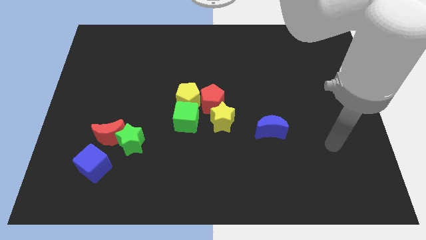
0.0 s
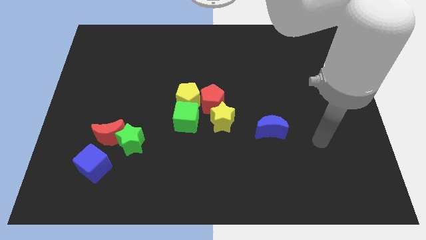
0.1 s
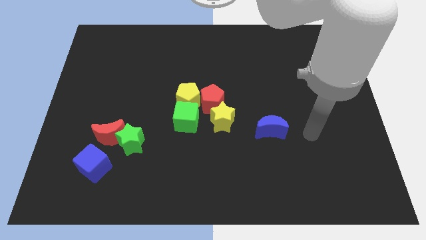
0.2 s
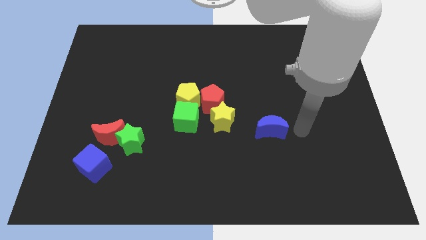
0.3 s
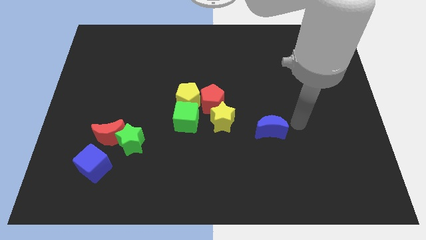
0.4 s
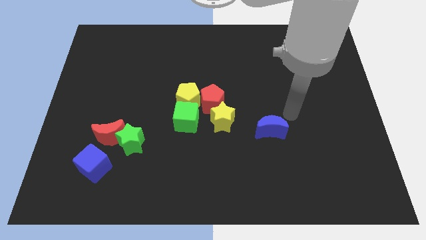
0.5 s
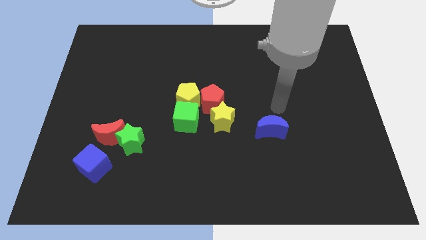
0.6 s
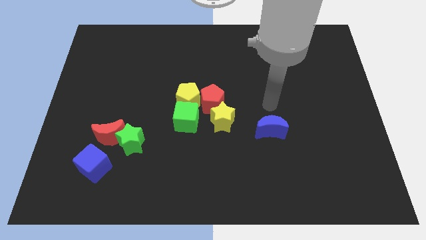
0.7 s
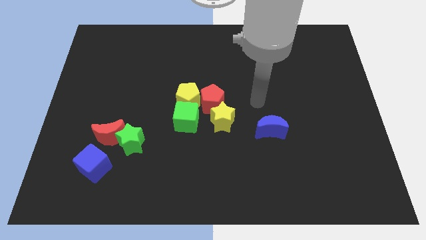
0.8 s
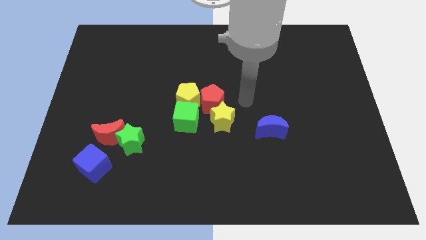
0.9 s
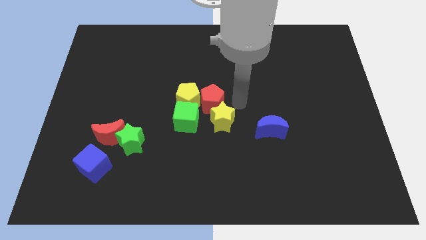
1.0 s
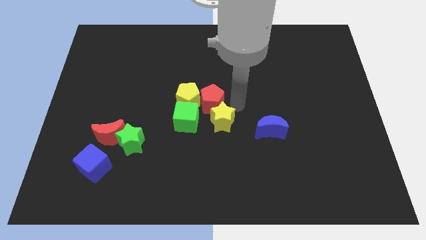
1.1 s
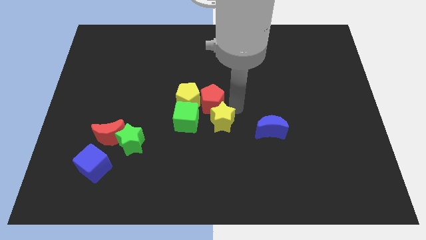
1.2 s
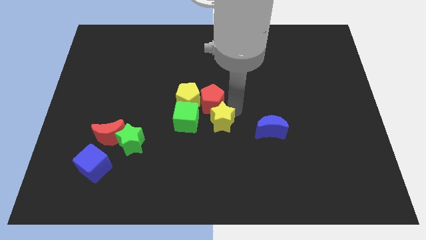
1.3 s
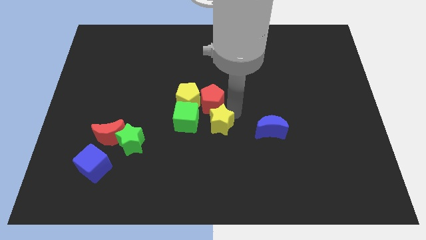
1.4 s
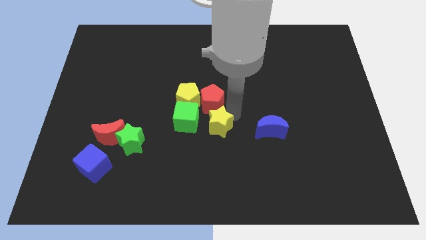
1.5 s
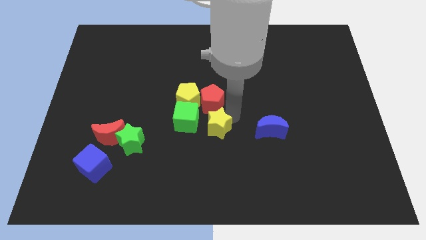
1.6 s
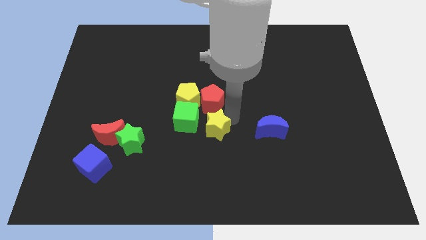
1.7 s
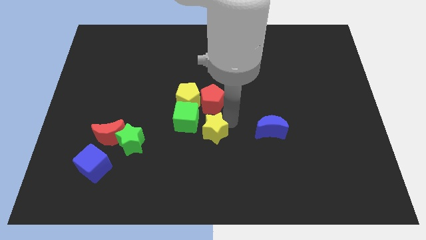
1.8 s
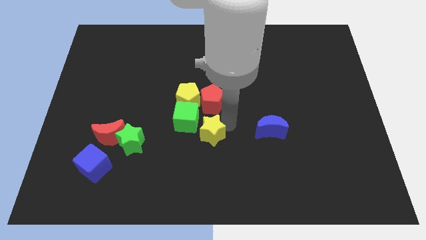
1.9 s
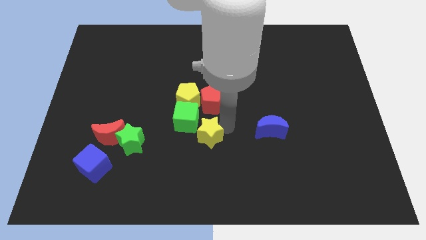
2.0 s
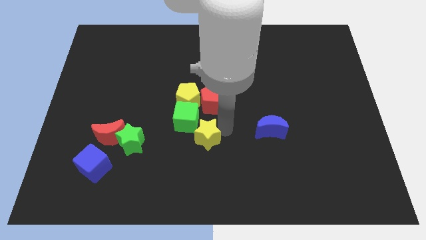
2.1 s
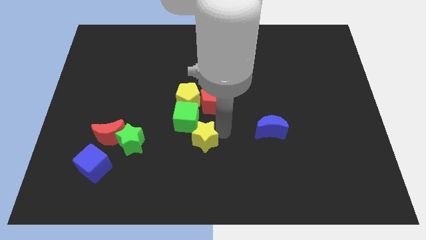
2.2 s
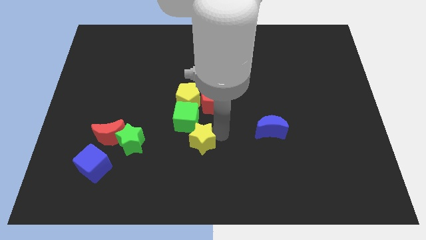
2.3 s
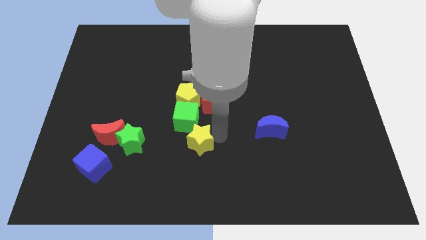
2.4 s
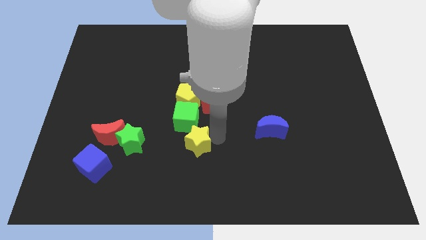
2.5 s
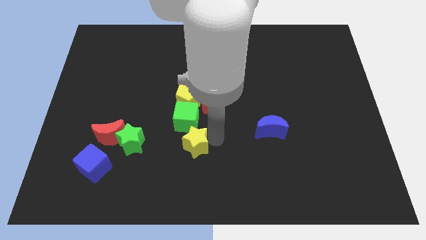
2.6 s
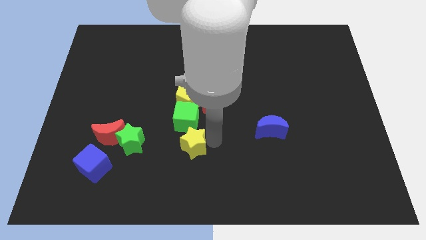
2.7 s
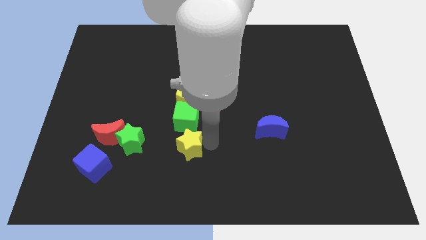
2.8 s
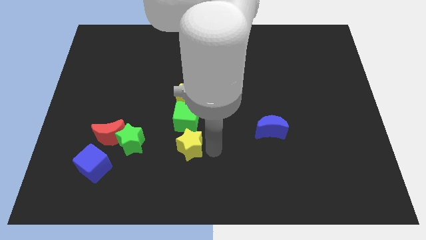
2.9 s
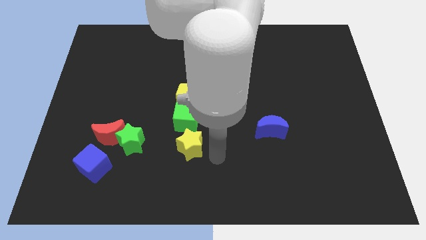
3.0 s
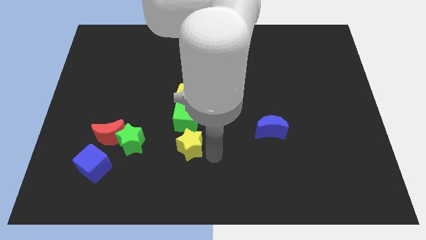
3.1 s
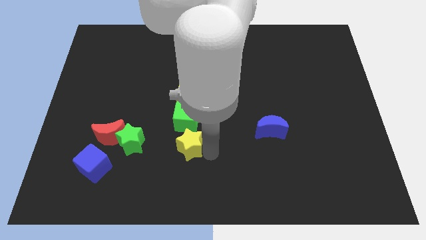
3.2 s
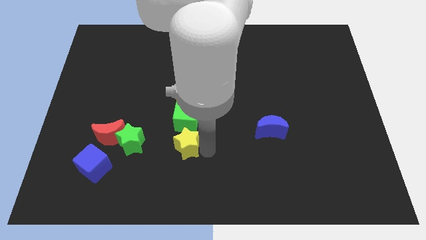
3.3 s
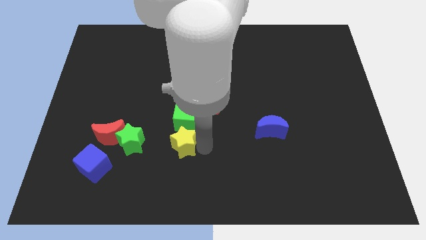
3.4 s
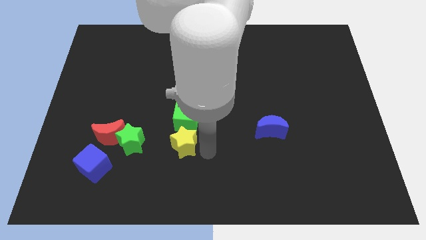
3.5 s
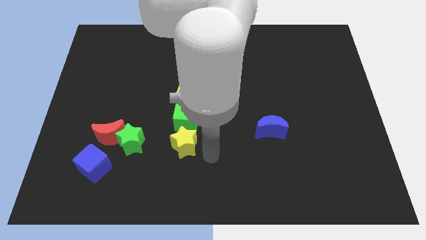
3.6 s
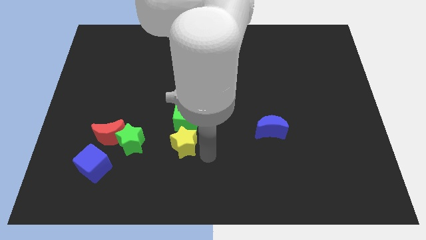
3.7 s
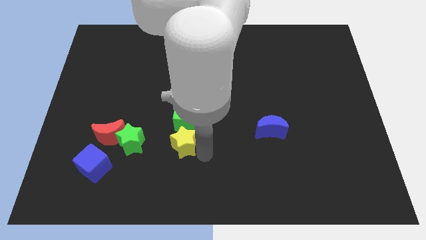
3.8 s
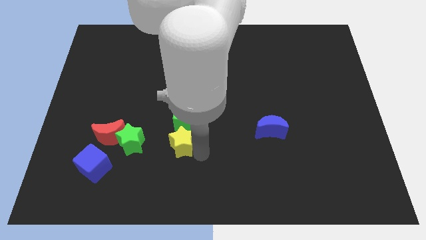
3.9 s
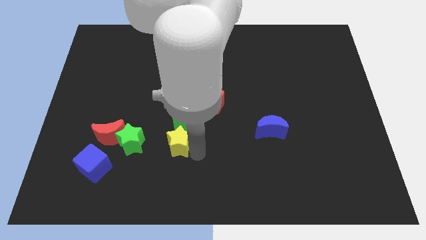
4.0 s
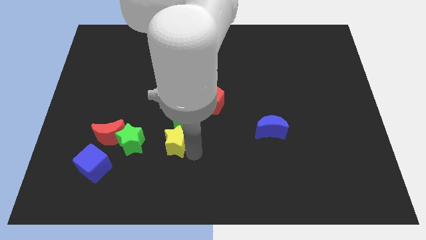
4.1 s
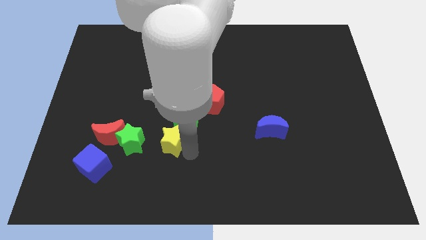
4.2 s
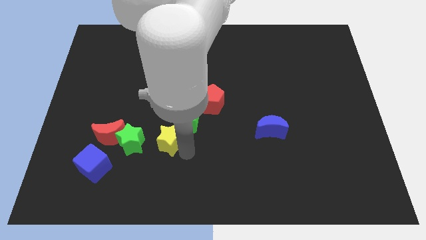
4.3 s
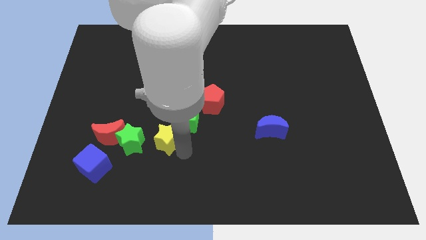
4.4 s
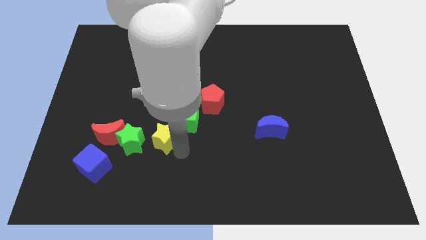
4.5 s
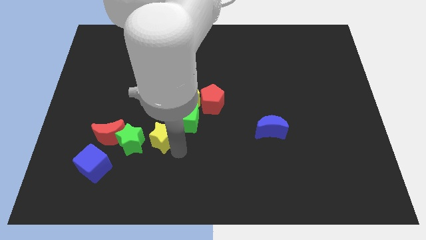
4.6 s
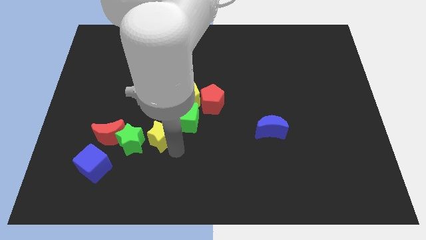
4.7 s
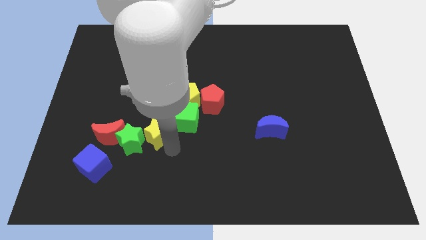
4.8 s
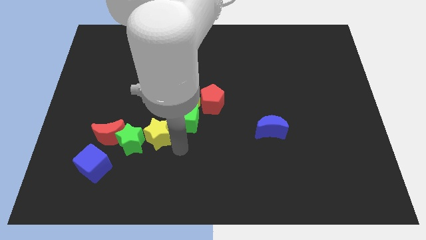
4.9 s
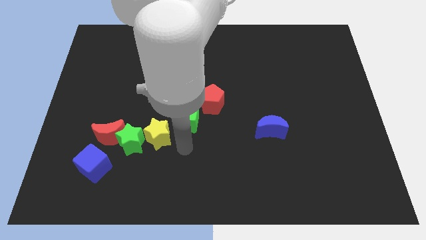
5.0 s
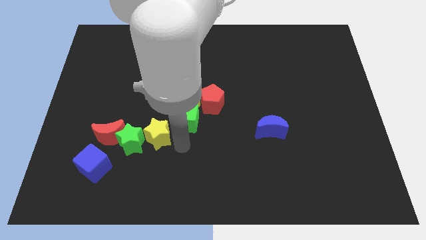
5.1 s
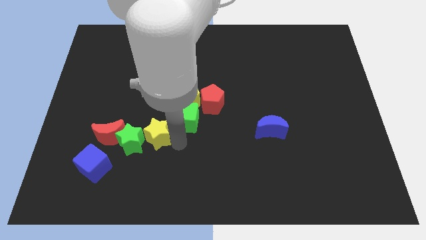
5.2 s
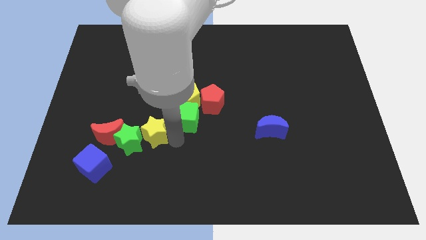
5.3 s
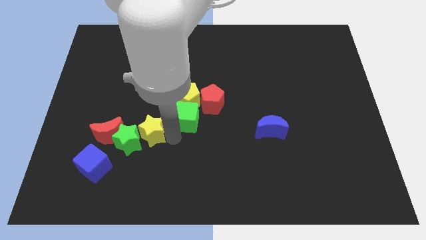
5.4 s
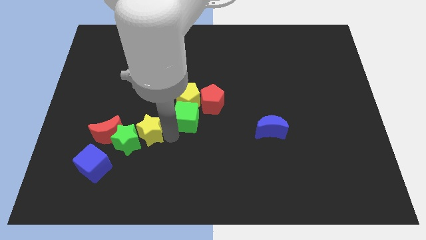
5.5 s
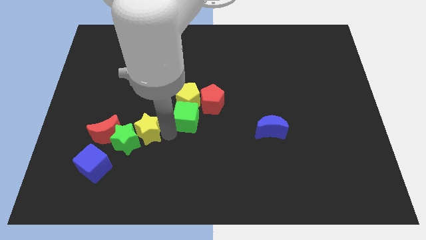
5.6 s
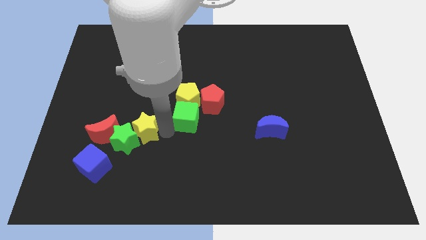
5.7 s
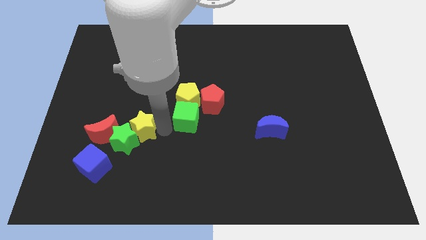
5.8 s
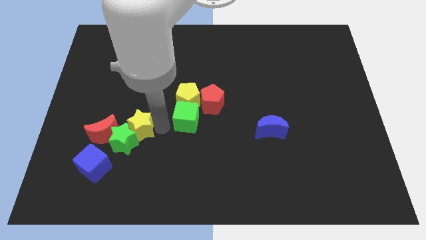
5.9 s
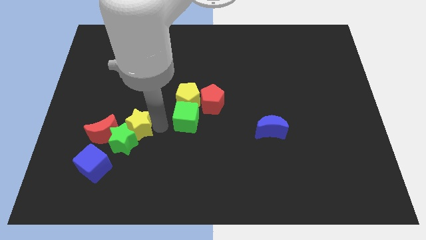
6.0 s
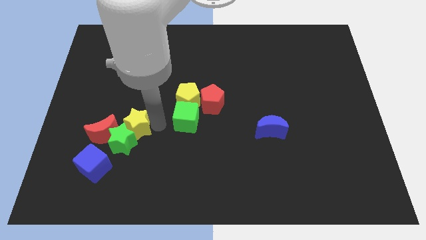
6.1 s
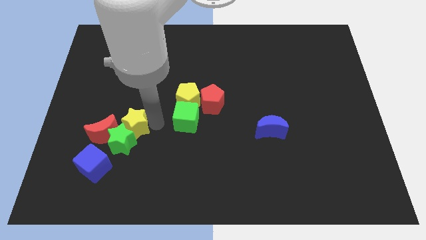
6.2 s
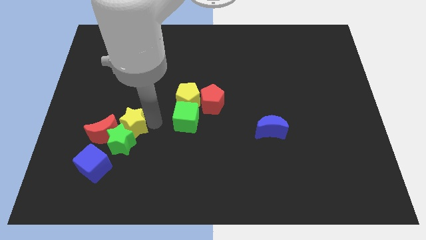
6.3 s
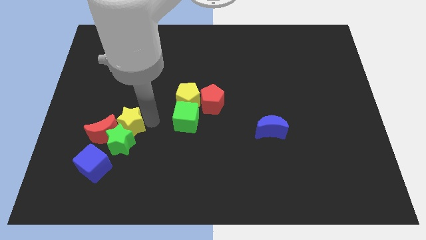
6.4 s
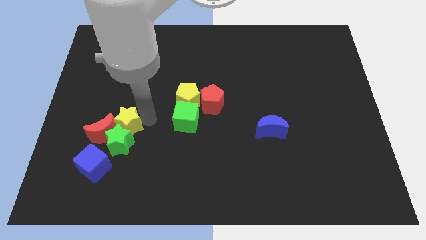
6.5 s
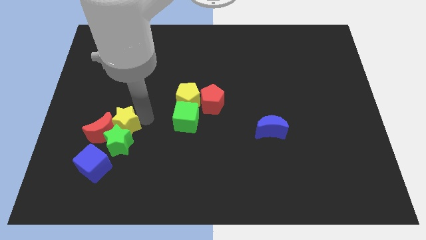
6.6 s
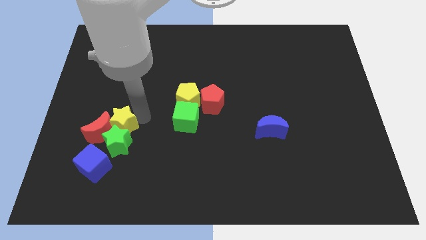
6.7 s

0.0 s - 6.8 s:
push the yellow star above the blue cube
